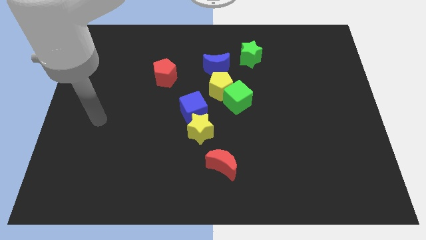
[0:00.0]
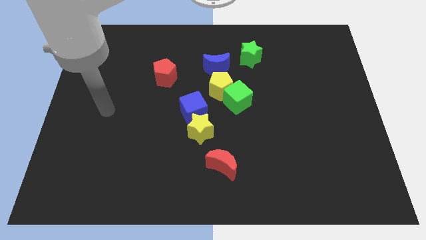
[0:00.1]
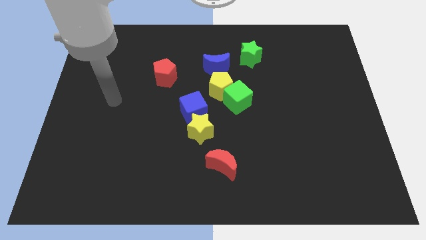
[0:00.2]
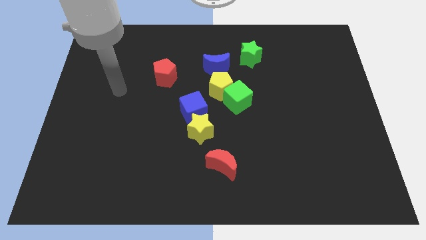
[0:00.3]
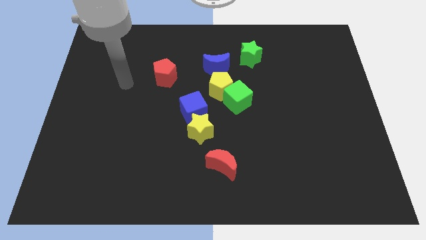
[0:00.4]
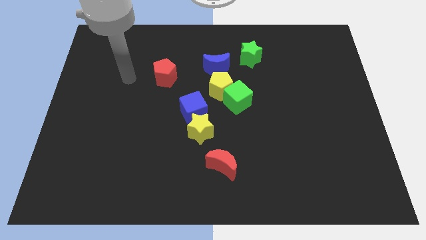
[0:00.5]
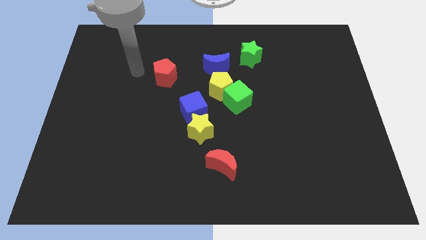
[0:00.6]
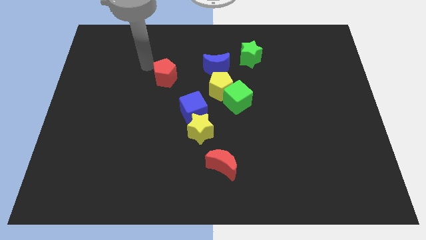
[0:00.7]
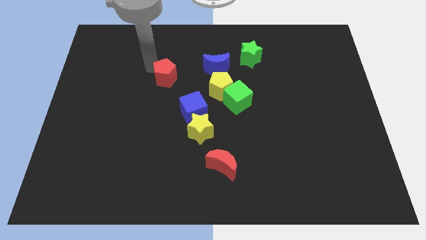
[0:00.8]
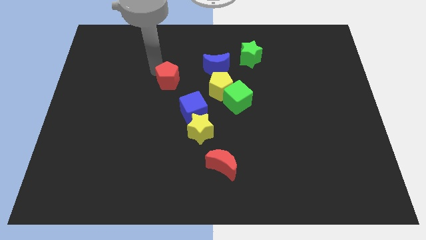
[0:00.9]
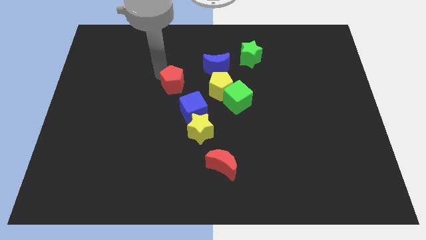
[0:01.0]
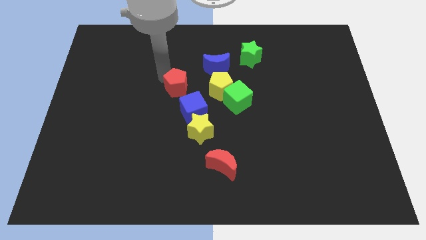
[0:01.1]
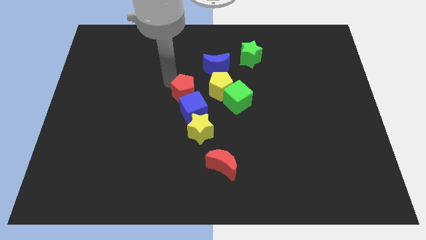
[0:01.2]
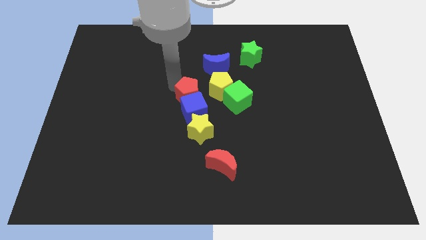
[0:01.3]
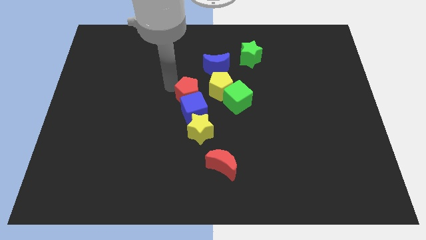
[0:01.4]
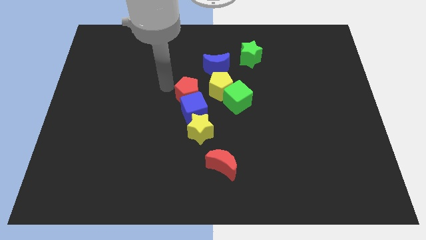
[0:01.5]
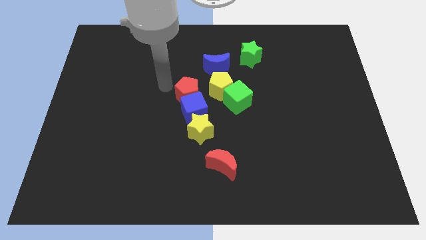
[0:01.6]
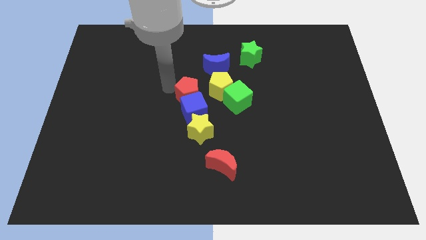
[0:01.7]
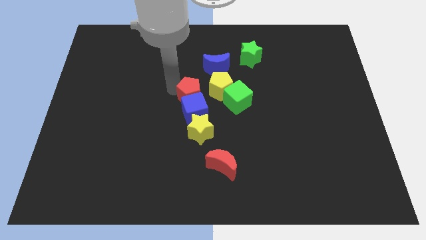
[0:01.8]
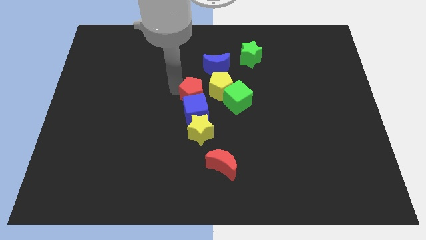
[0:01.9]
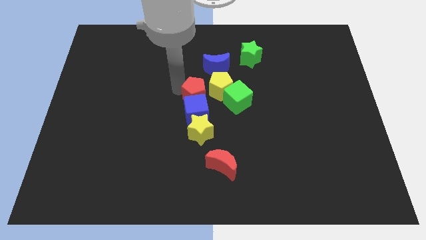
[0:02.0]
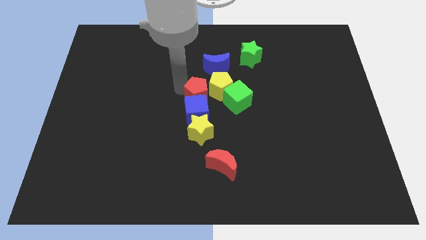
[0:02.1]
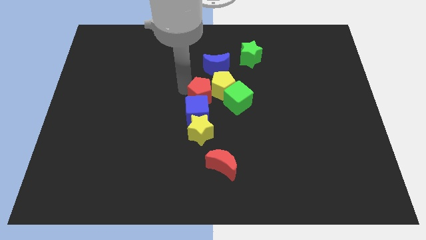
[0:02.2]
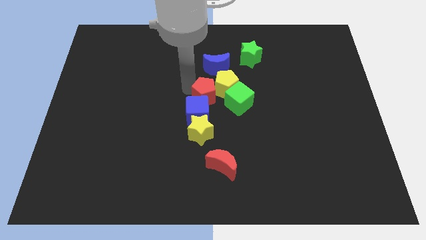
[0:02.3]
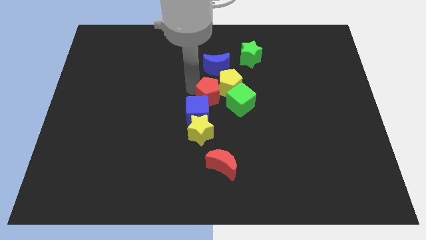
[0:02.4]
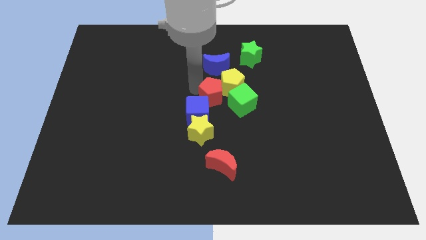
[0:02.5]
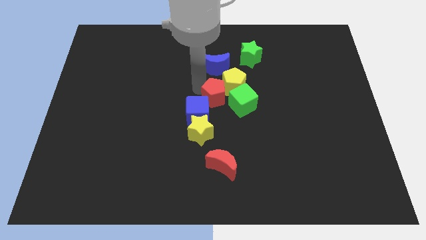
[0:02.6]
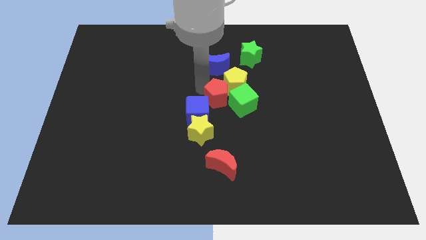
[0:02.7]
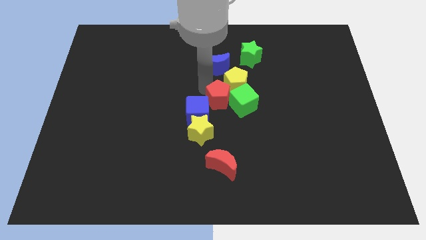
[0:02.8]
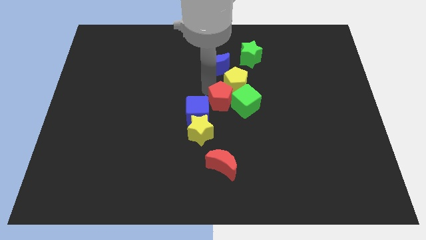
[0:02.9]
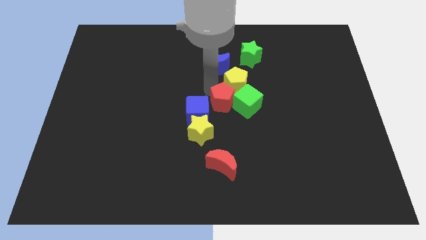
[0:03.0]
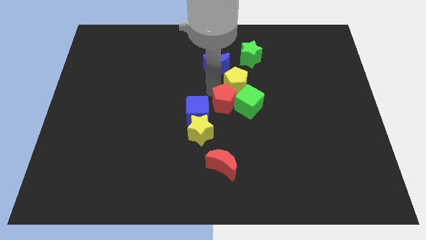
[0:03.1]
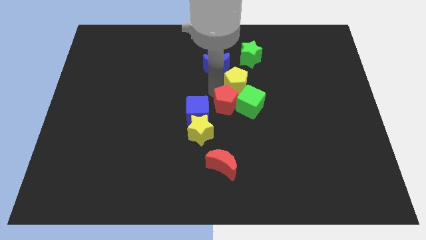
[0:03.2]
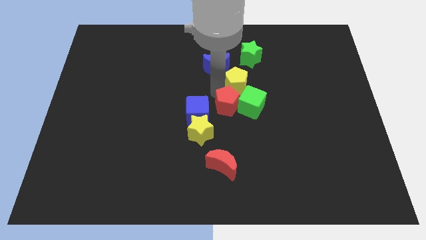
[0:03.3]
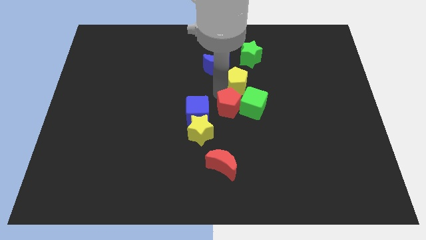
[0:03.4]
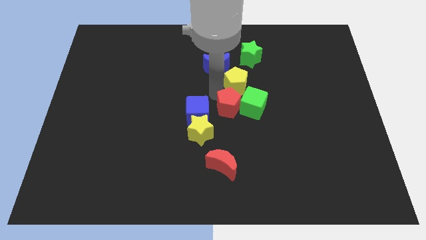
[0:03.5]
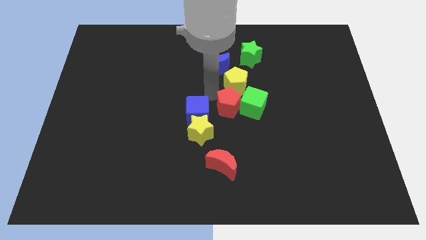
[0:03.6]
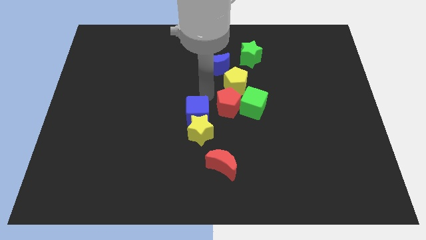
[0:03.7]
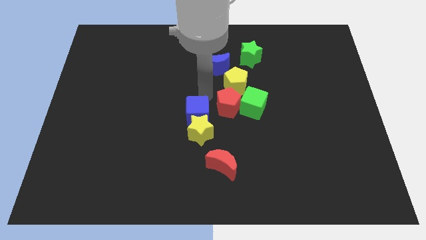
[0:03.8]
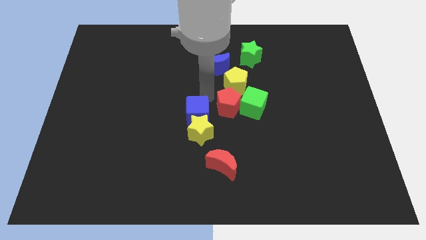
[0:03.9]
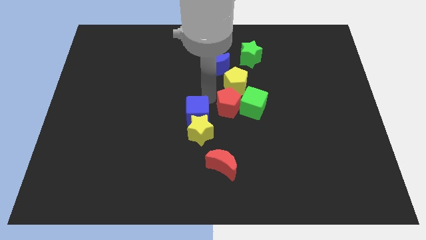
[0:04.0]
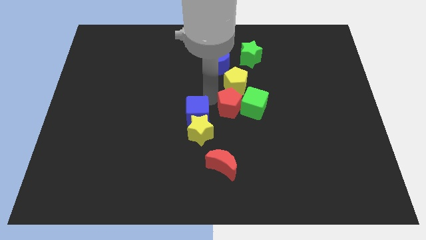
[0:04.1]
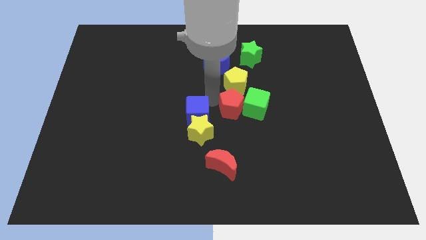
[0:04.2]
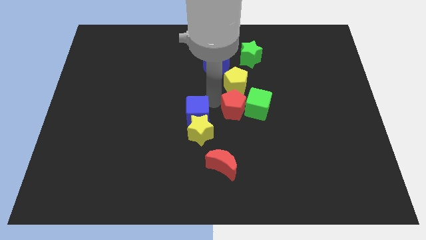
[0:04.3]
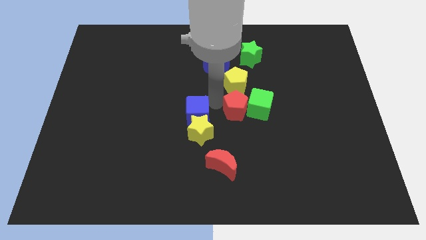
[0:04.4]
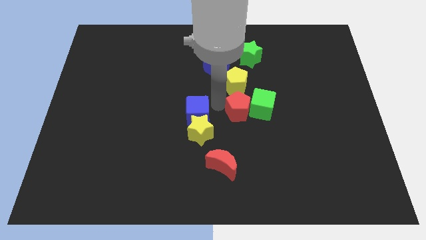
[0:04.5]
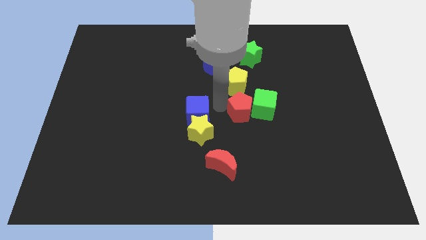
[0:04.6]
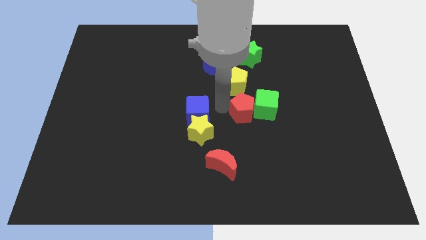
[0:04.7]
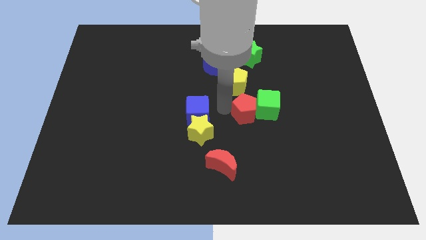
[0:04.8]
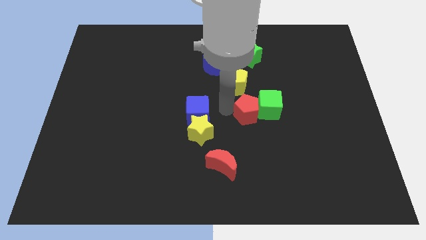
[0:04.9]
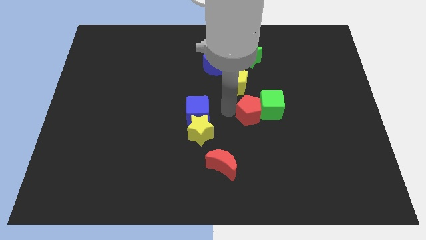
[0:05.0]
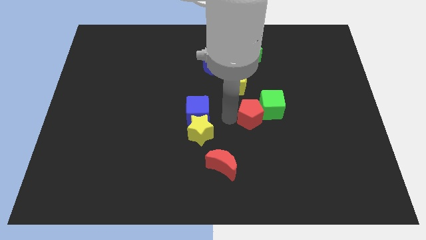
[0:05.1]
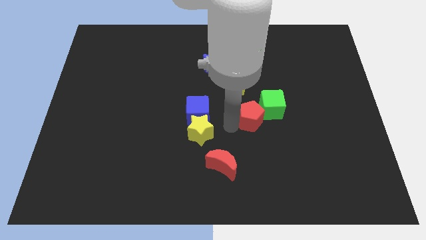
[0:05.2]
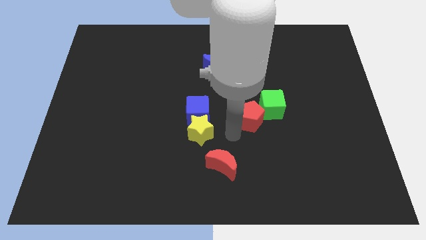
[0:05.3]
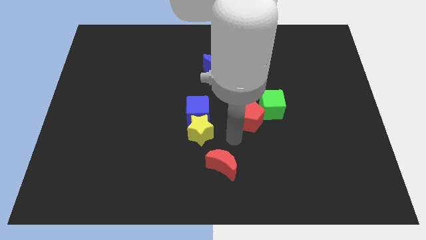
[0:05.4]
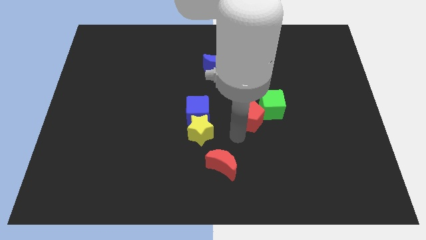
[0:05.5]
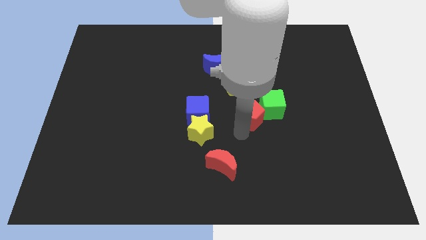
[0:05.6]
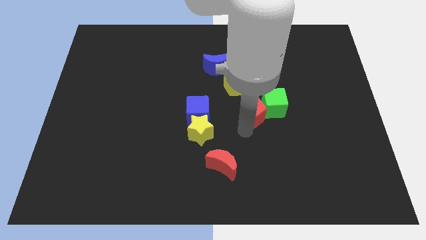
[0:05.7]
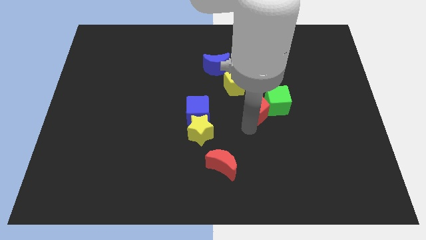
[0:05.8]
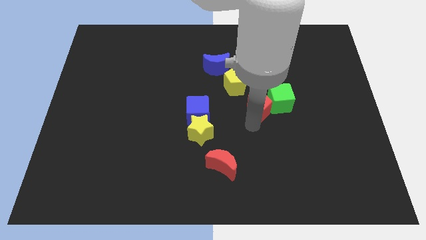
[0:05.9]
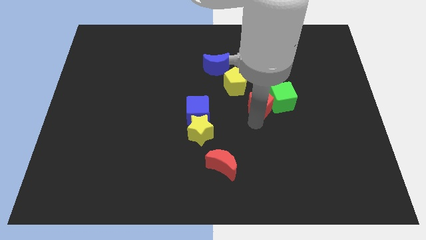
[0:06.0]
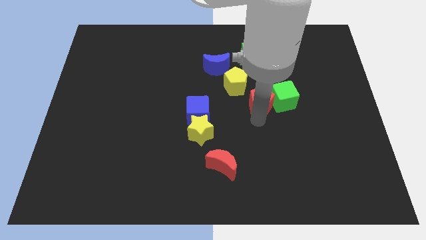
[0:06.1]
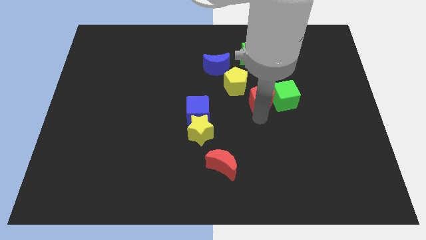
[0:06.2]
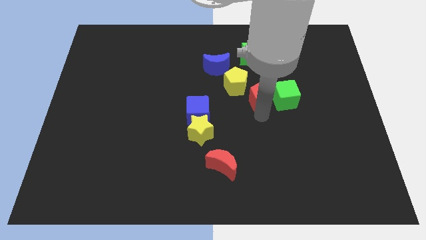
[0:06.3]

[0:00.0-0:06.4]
move the red pentagon right of the yellow pentagon
